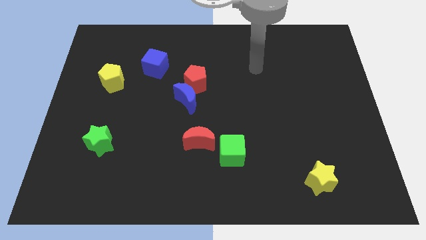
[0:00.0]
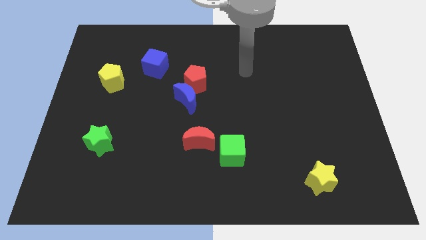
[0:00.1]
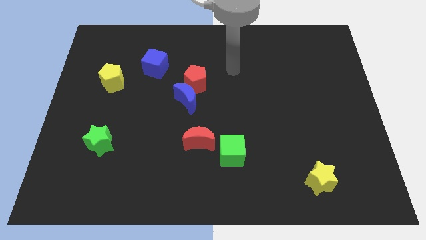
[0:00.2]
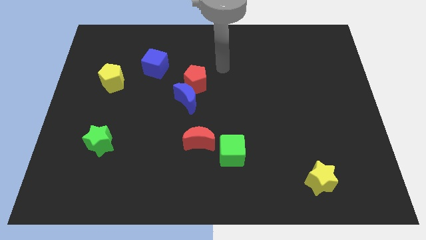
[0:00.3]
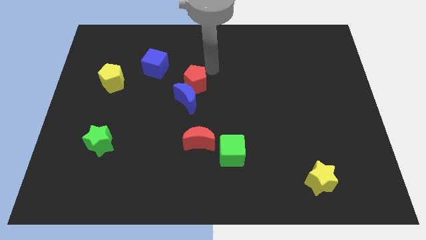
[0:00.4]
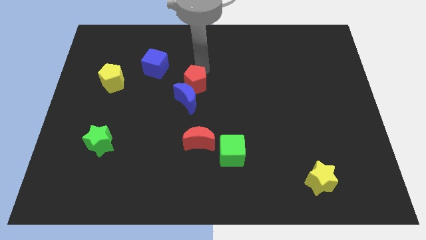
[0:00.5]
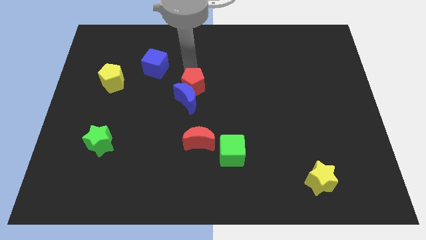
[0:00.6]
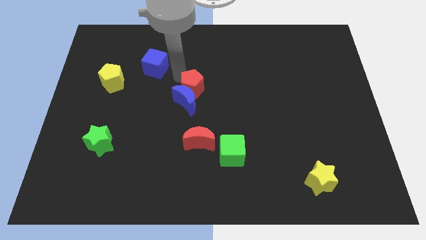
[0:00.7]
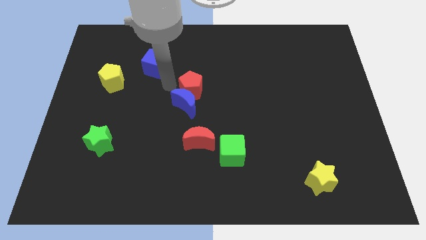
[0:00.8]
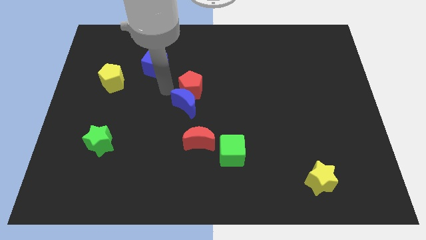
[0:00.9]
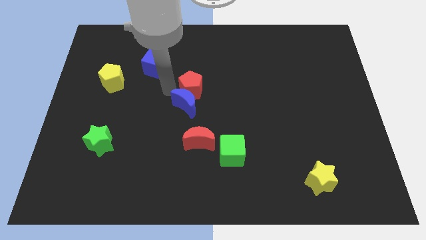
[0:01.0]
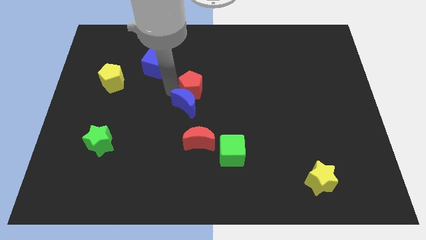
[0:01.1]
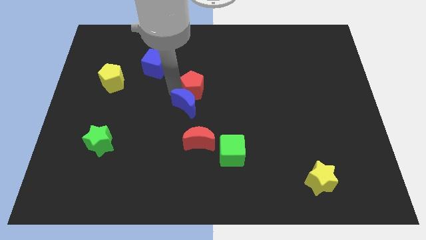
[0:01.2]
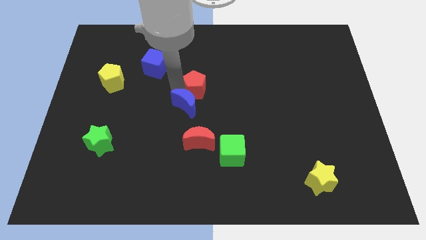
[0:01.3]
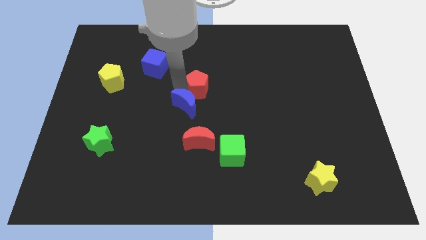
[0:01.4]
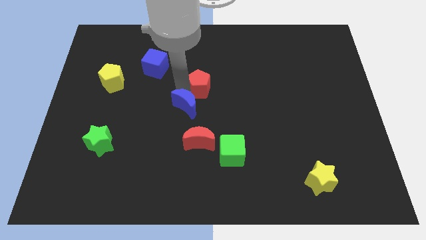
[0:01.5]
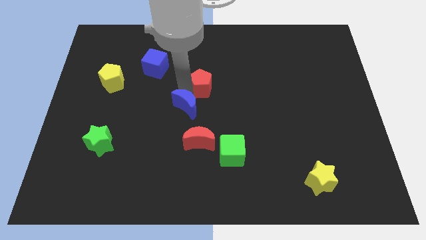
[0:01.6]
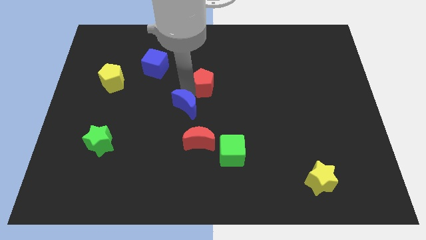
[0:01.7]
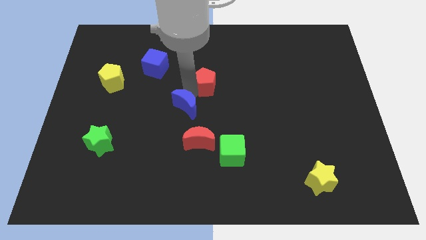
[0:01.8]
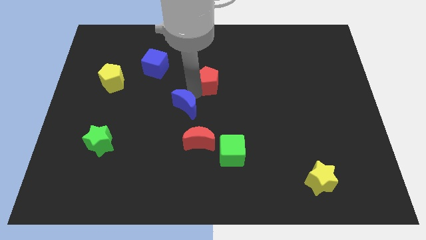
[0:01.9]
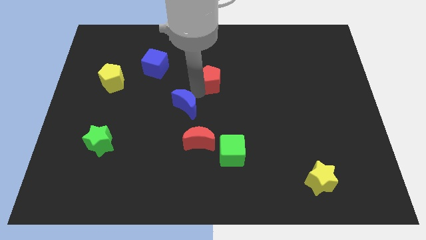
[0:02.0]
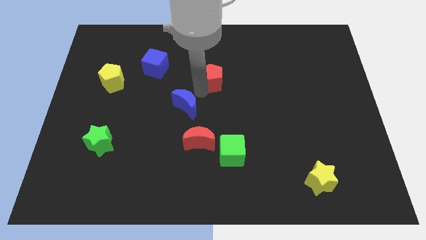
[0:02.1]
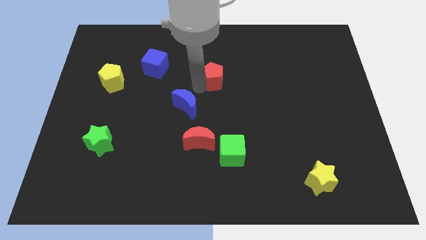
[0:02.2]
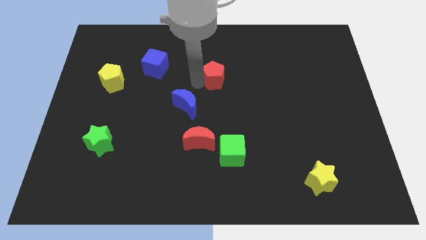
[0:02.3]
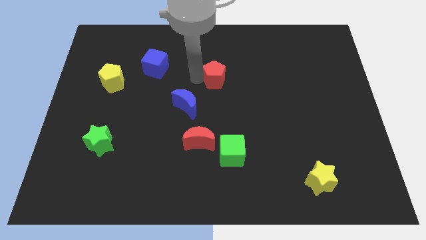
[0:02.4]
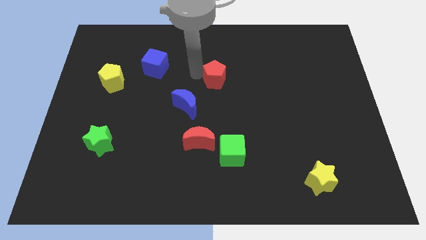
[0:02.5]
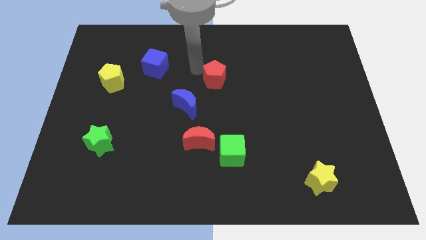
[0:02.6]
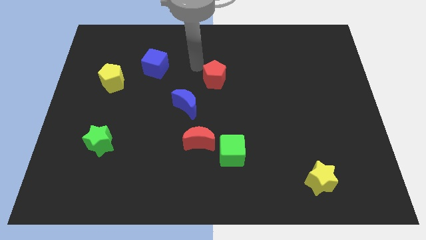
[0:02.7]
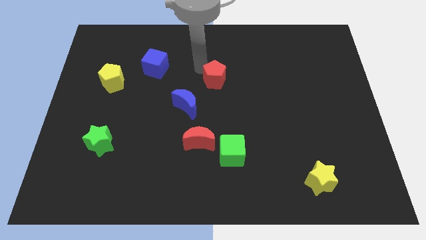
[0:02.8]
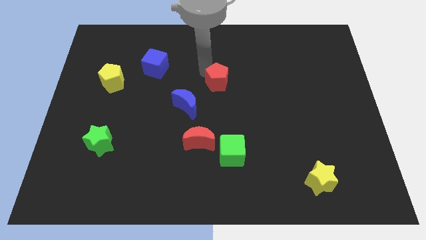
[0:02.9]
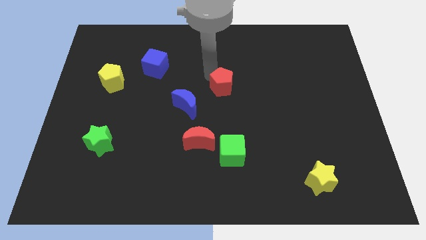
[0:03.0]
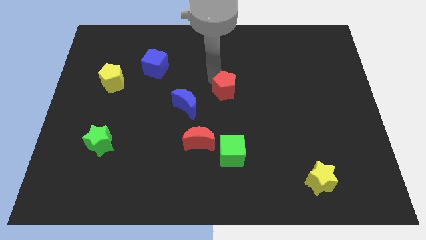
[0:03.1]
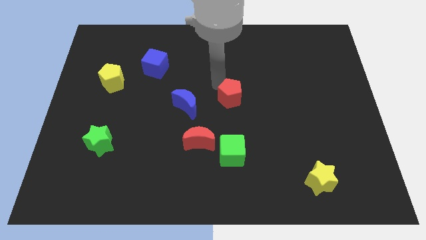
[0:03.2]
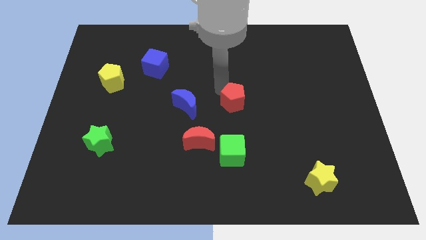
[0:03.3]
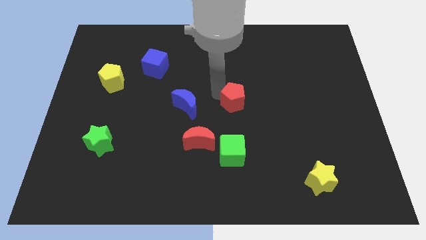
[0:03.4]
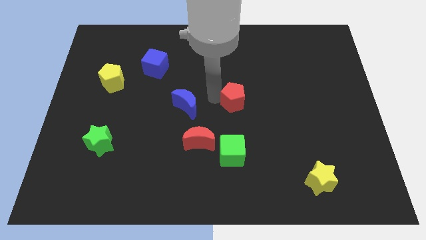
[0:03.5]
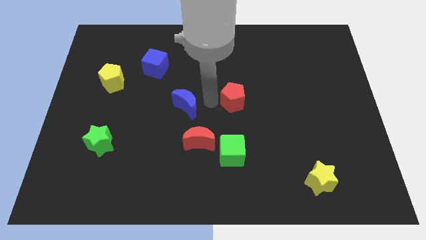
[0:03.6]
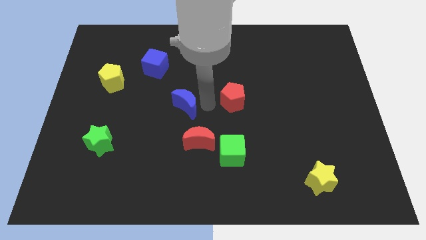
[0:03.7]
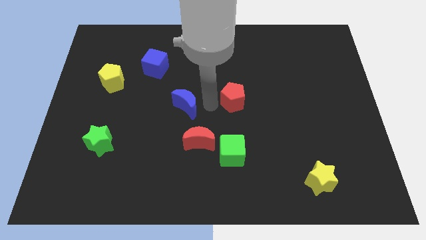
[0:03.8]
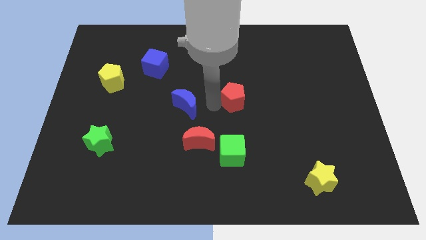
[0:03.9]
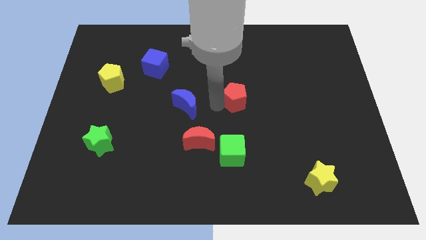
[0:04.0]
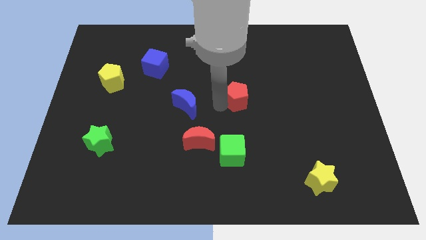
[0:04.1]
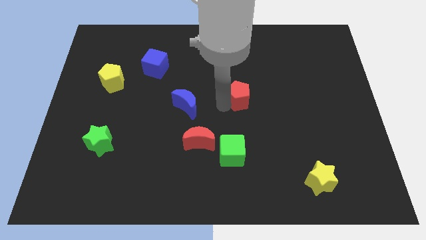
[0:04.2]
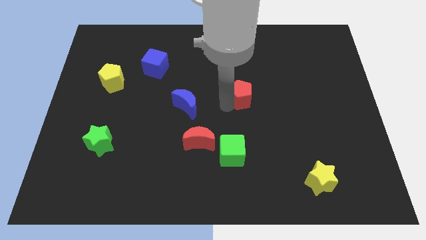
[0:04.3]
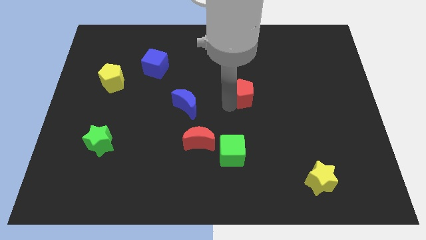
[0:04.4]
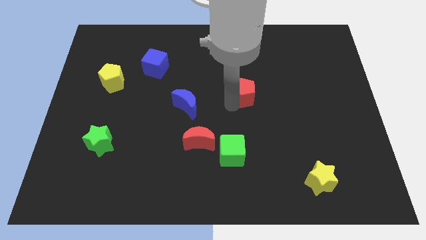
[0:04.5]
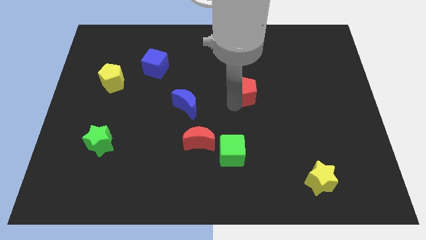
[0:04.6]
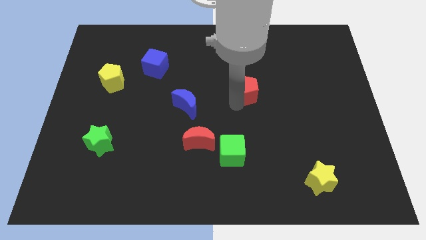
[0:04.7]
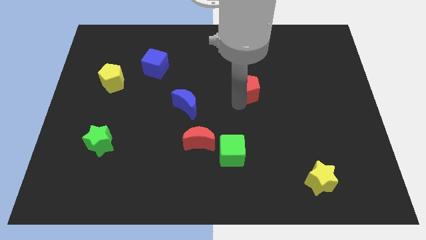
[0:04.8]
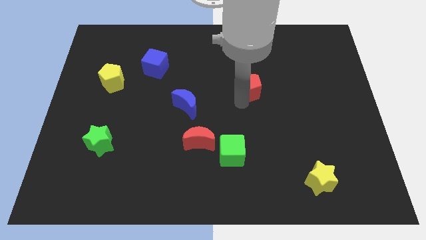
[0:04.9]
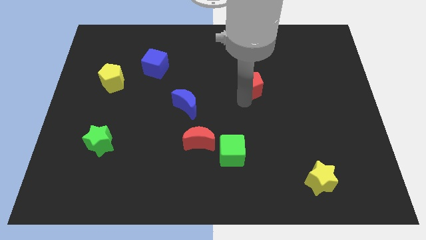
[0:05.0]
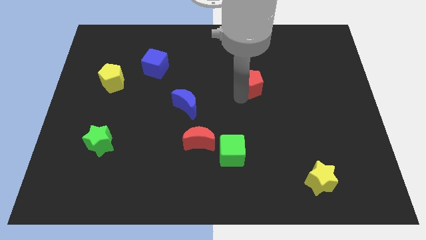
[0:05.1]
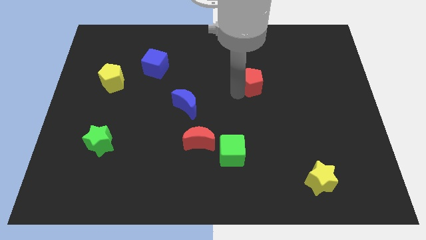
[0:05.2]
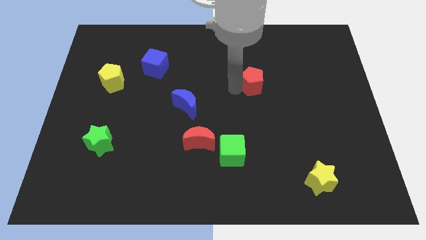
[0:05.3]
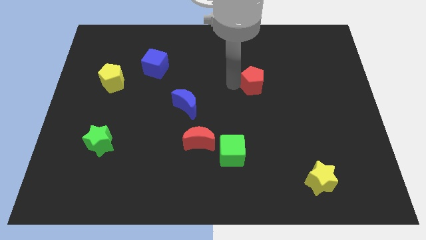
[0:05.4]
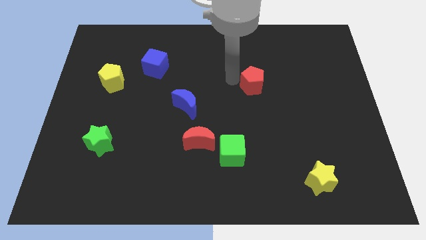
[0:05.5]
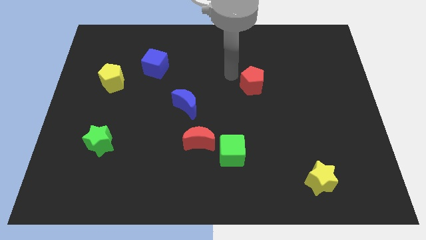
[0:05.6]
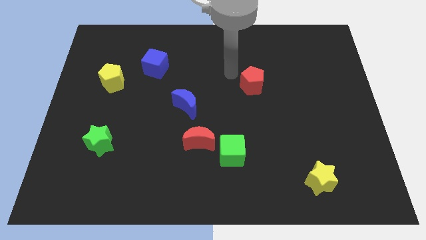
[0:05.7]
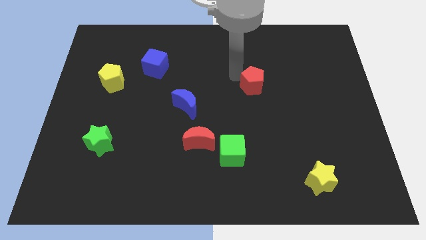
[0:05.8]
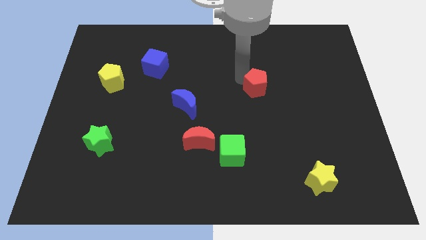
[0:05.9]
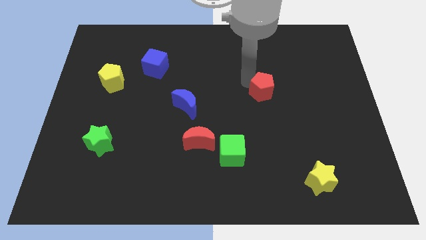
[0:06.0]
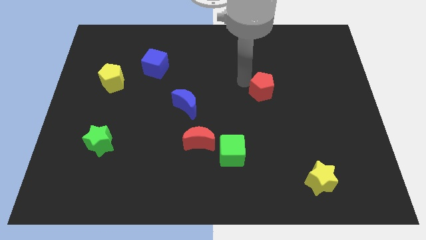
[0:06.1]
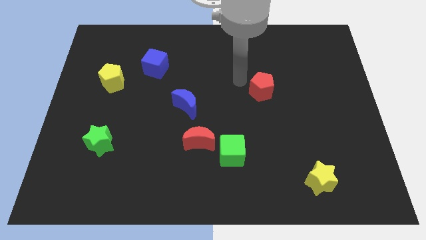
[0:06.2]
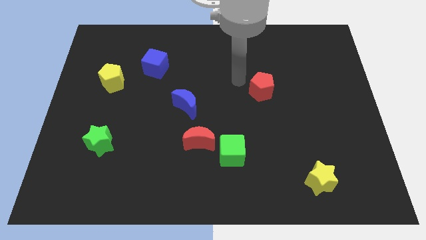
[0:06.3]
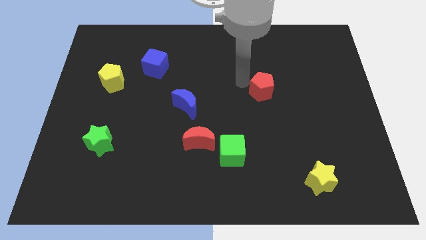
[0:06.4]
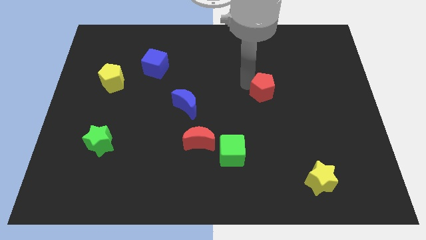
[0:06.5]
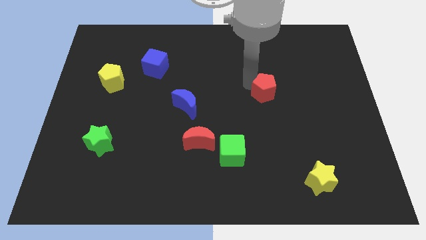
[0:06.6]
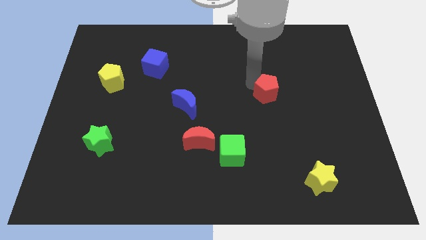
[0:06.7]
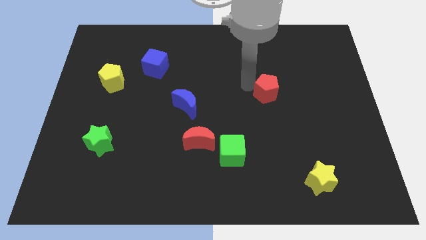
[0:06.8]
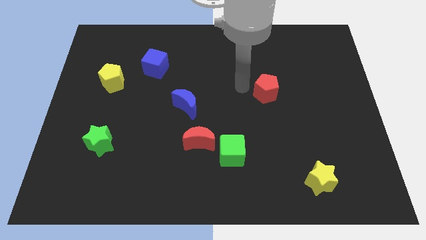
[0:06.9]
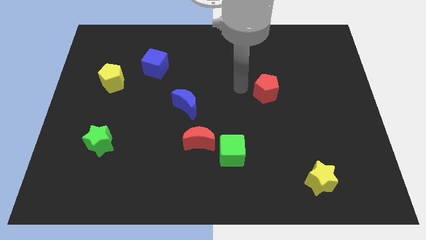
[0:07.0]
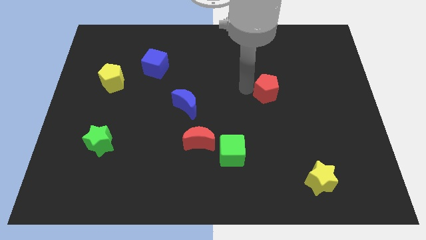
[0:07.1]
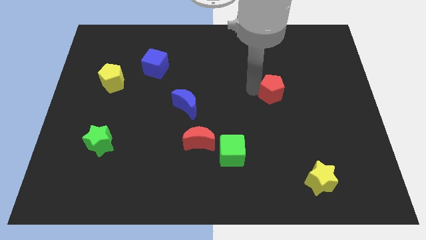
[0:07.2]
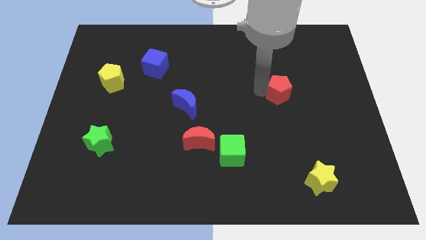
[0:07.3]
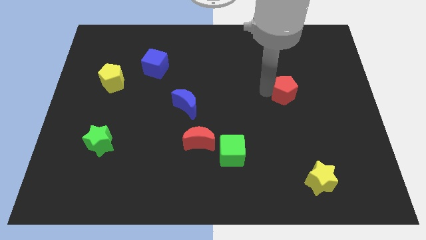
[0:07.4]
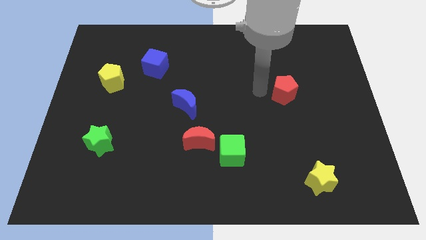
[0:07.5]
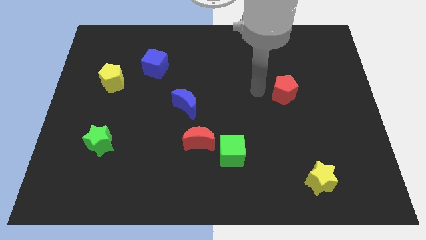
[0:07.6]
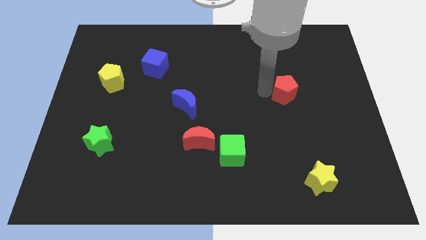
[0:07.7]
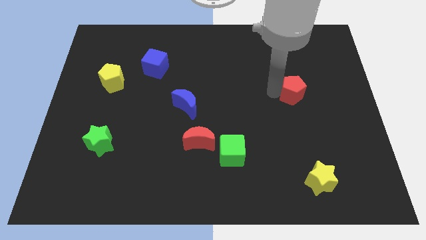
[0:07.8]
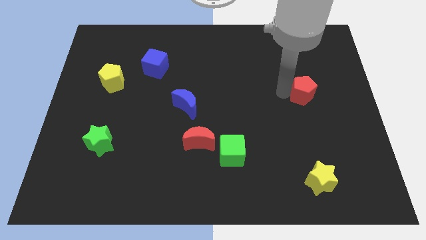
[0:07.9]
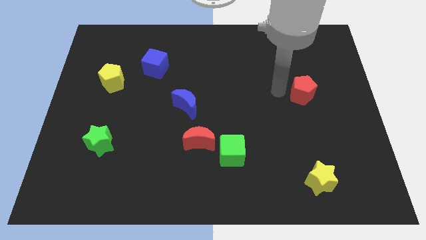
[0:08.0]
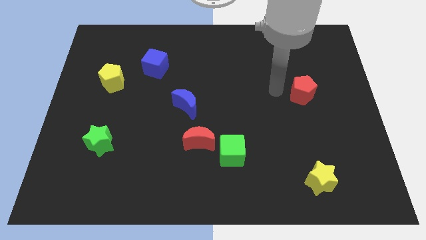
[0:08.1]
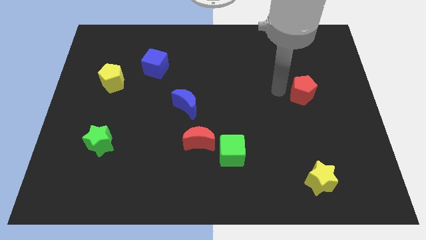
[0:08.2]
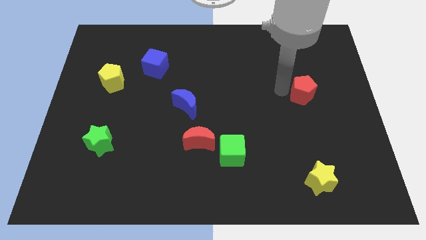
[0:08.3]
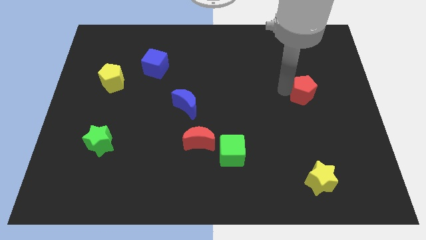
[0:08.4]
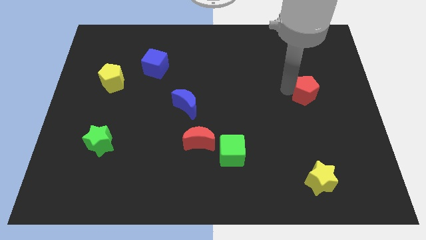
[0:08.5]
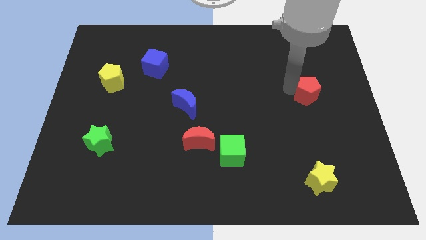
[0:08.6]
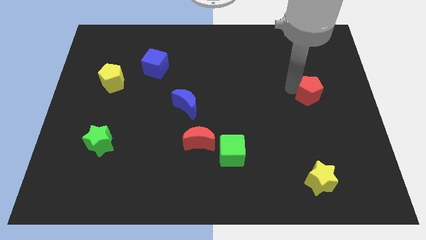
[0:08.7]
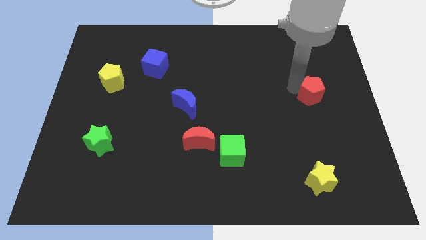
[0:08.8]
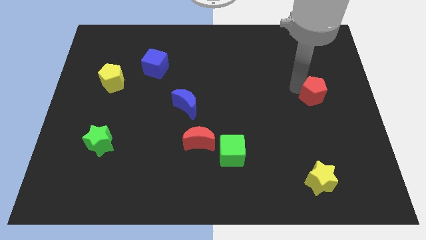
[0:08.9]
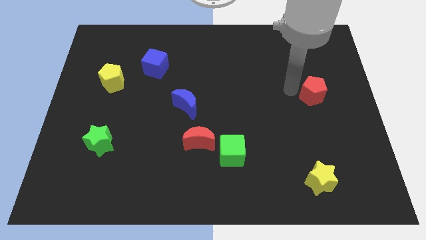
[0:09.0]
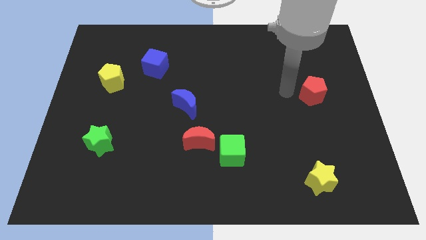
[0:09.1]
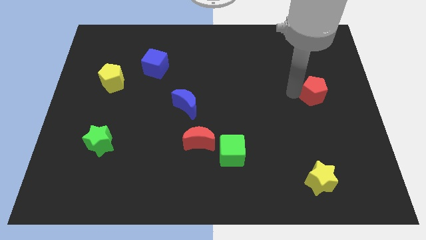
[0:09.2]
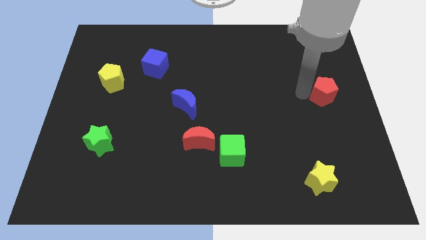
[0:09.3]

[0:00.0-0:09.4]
put the red pentagon to the right side
